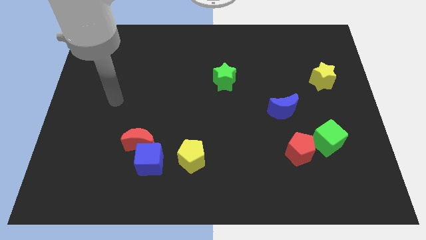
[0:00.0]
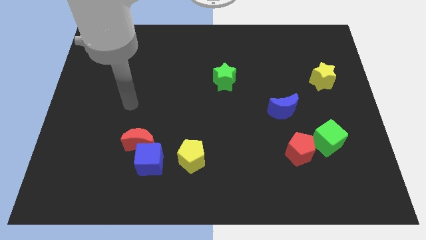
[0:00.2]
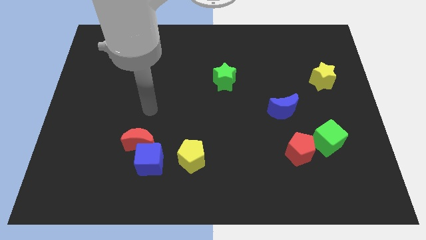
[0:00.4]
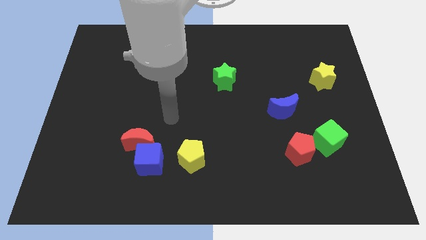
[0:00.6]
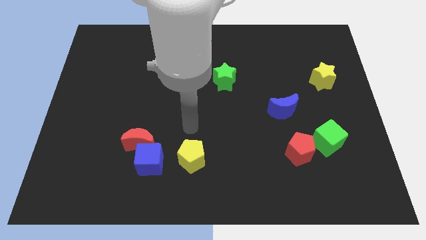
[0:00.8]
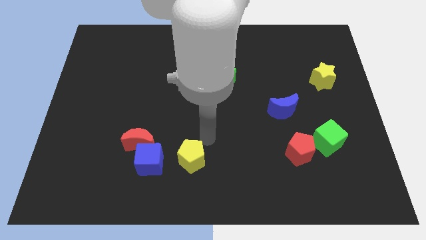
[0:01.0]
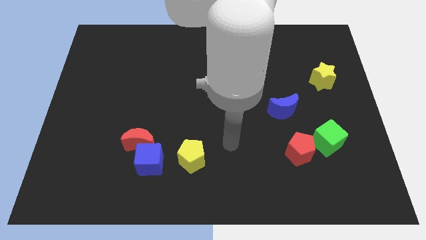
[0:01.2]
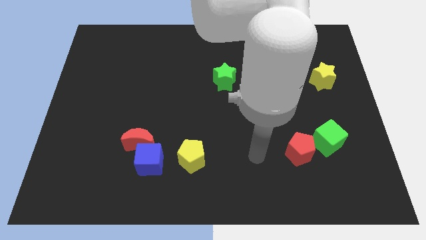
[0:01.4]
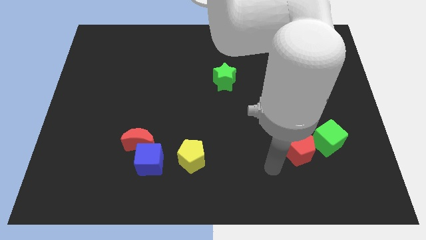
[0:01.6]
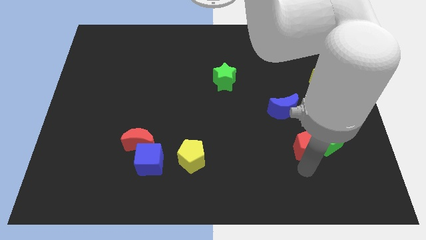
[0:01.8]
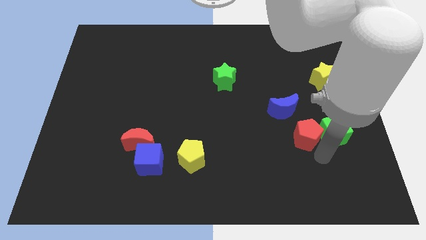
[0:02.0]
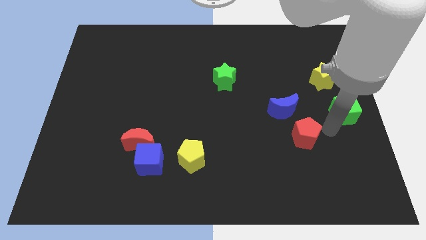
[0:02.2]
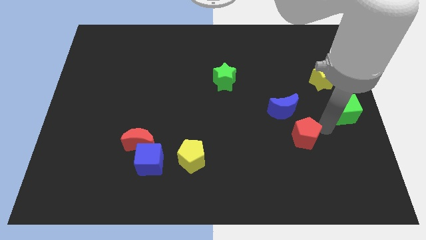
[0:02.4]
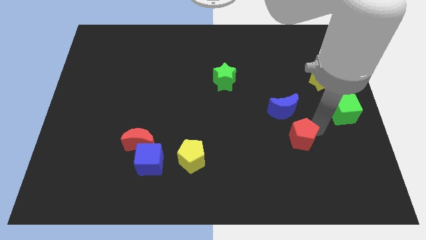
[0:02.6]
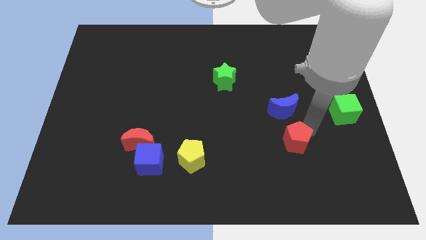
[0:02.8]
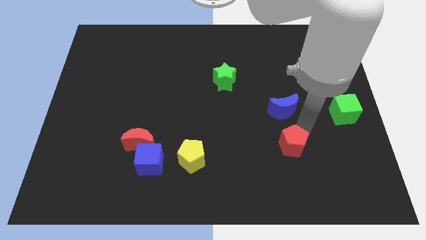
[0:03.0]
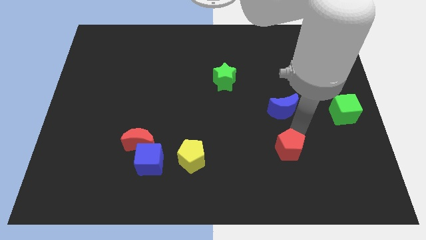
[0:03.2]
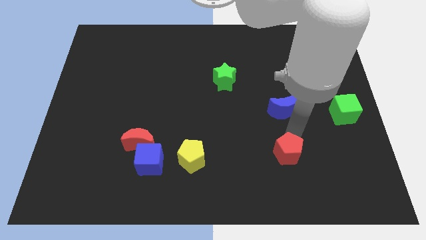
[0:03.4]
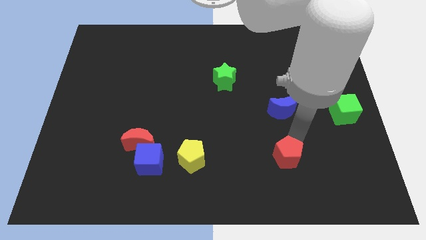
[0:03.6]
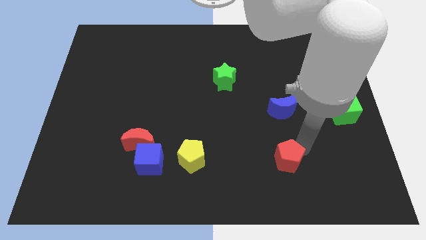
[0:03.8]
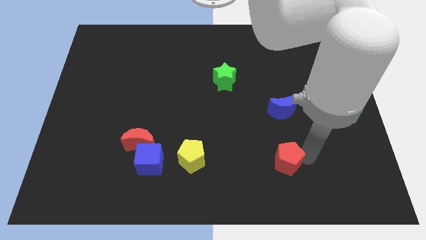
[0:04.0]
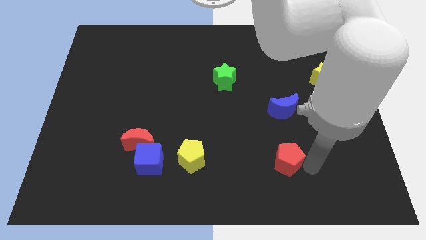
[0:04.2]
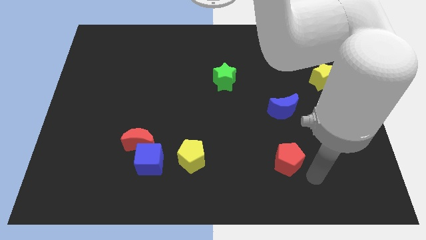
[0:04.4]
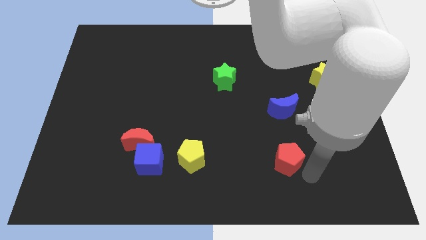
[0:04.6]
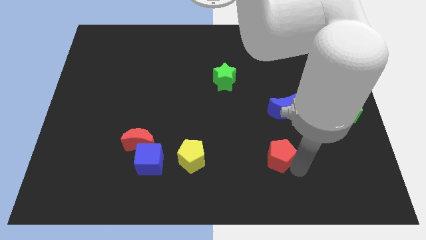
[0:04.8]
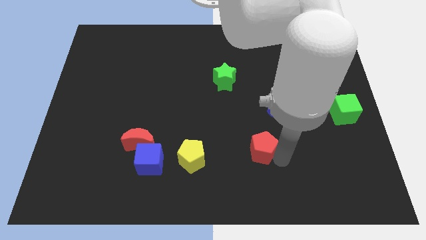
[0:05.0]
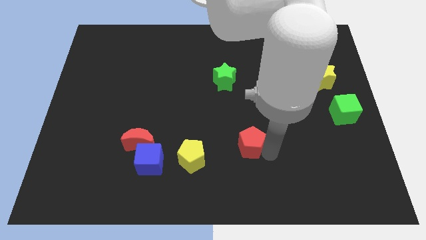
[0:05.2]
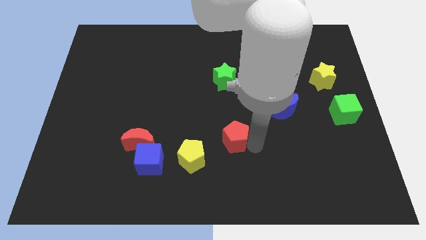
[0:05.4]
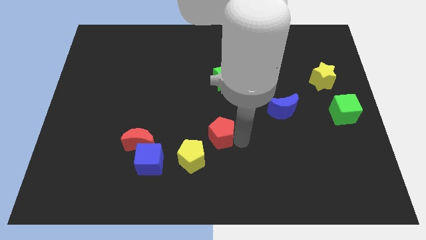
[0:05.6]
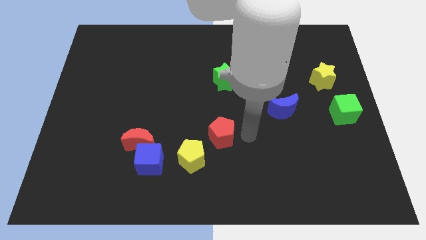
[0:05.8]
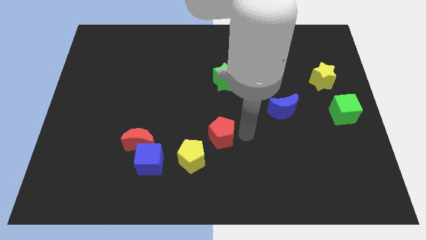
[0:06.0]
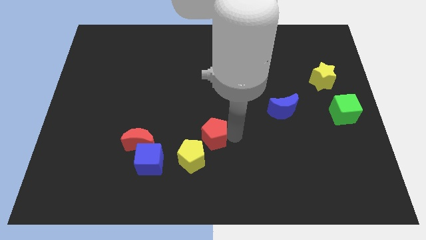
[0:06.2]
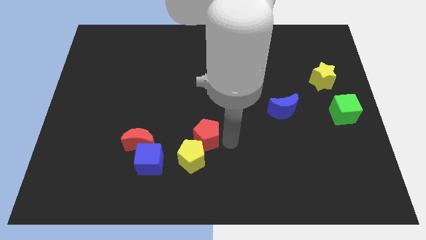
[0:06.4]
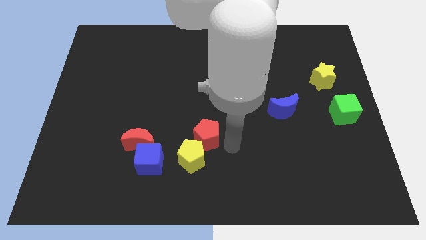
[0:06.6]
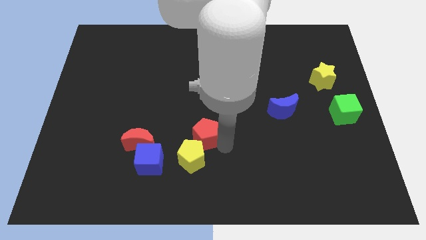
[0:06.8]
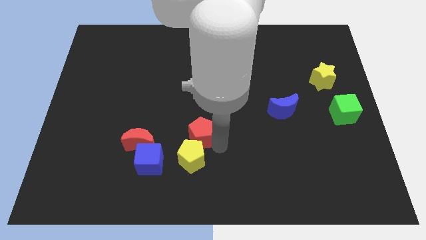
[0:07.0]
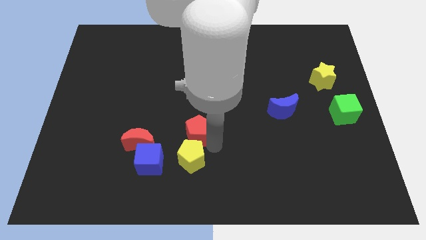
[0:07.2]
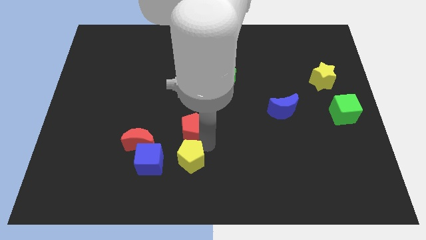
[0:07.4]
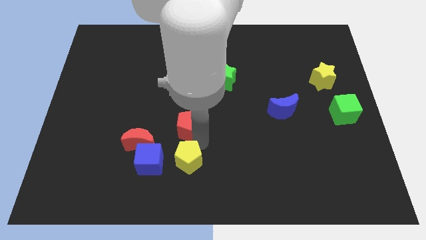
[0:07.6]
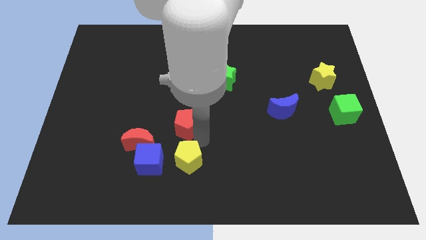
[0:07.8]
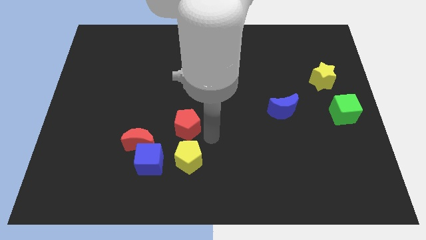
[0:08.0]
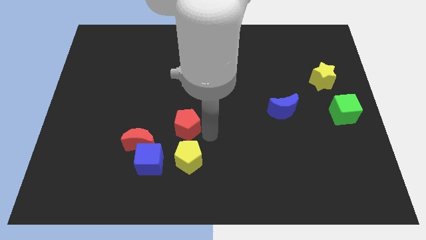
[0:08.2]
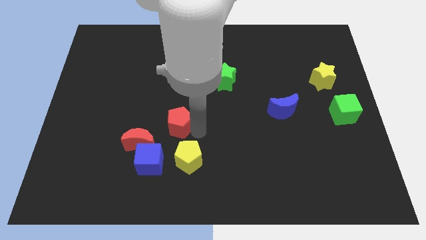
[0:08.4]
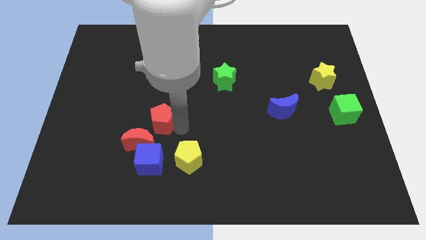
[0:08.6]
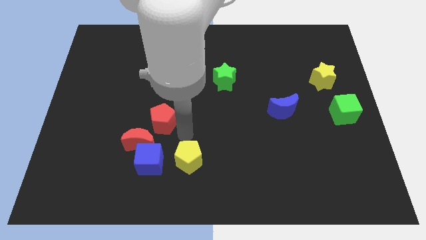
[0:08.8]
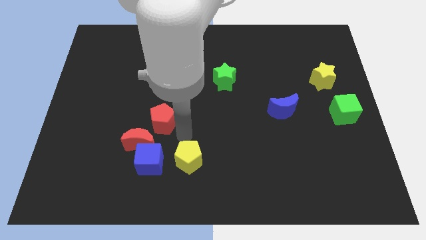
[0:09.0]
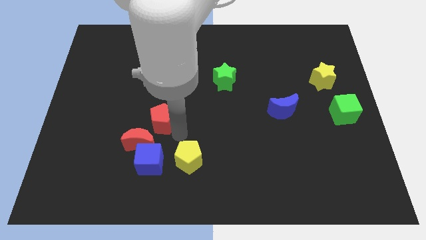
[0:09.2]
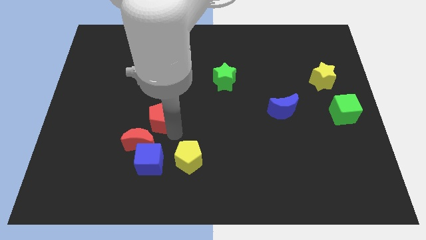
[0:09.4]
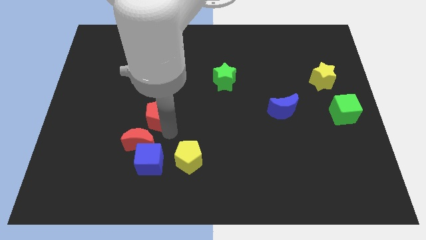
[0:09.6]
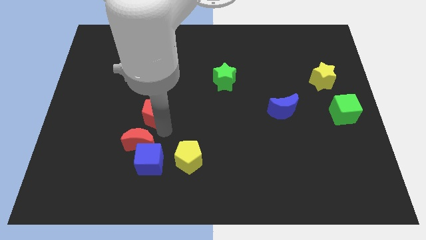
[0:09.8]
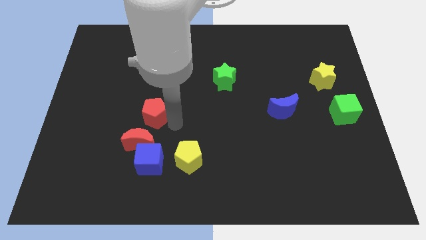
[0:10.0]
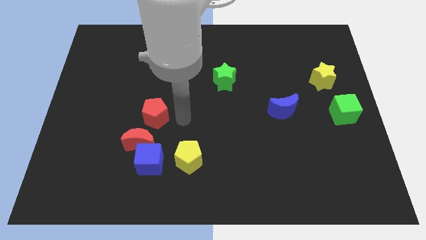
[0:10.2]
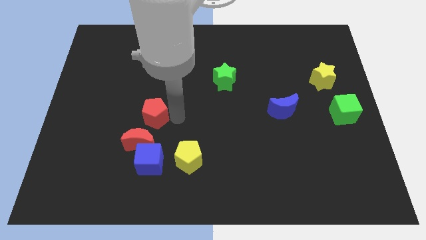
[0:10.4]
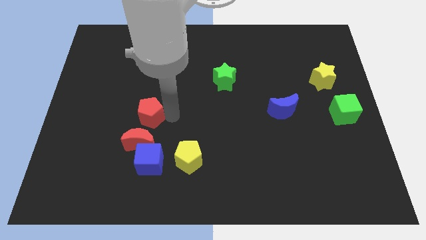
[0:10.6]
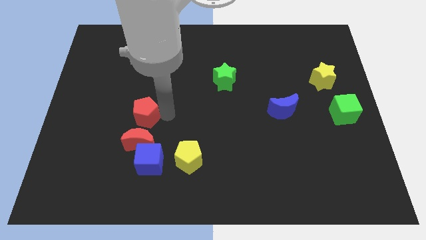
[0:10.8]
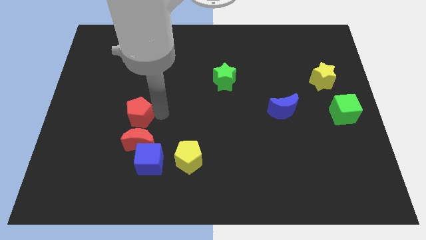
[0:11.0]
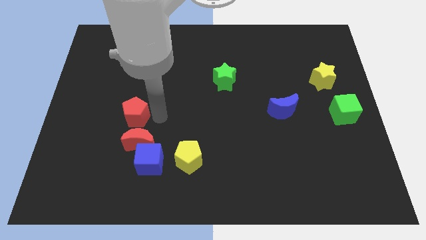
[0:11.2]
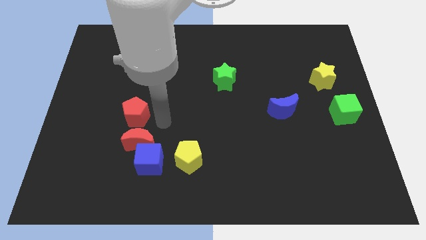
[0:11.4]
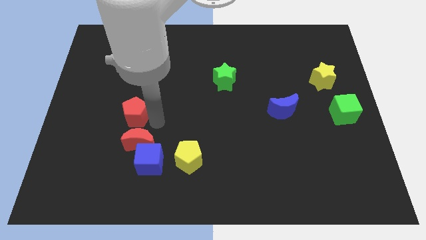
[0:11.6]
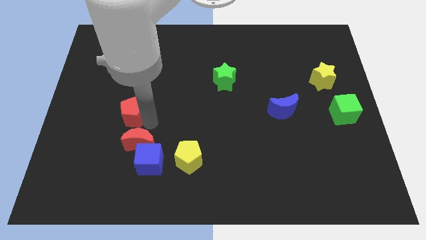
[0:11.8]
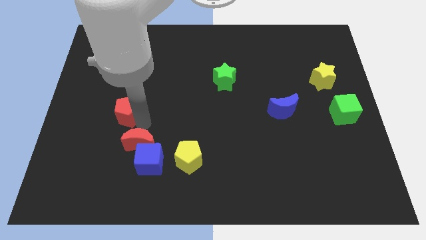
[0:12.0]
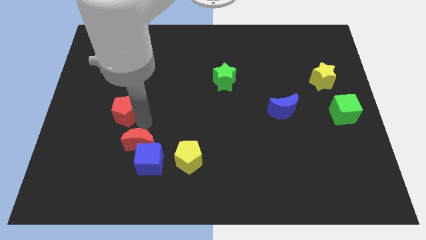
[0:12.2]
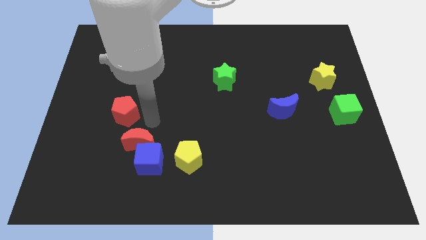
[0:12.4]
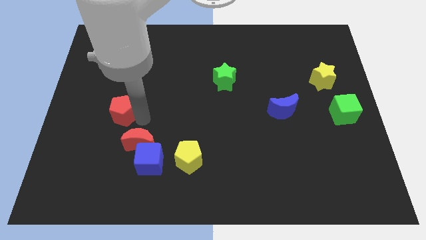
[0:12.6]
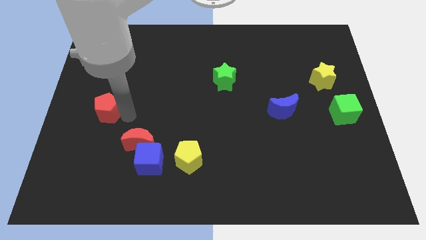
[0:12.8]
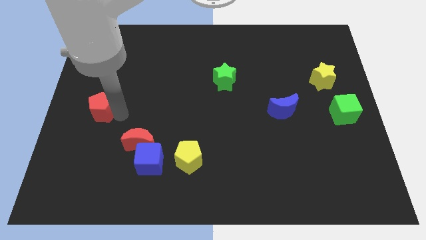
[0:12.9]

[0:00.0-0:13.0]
put the red pentagon to the left side of the board

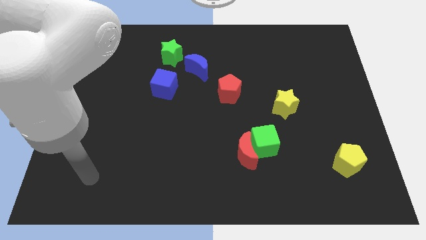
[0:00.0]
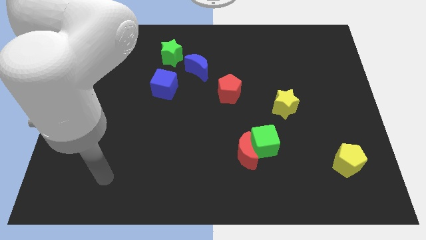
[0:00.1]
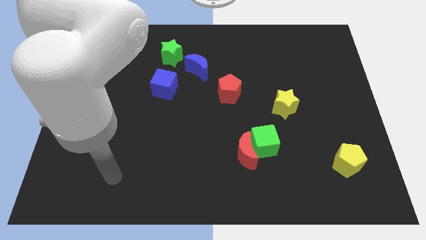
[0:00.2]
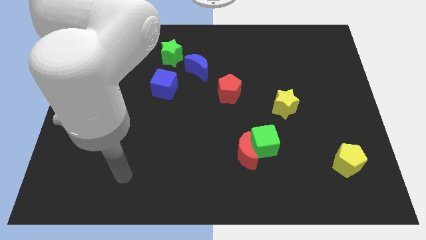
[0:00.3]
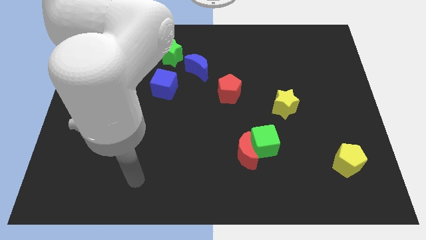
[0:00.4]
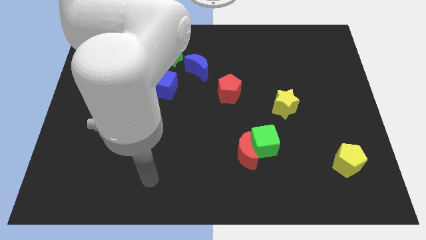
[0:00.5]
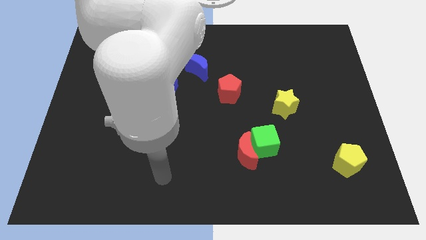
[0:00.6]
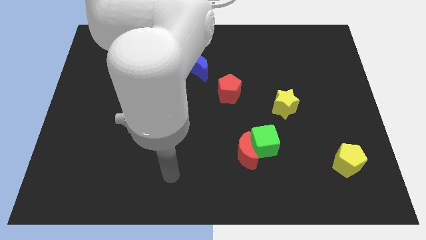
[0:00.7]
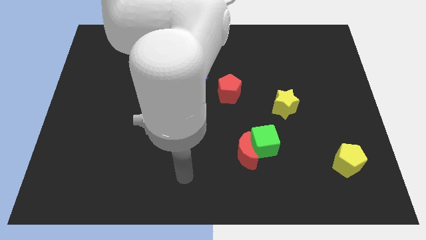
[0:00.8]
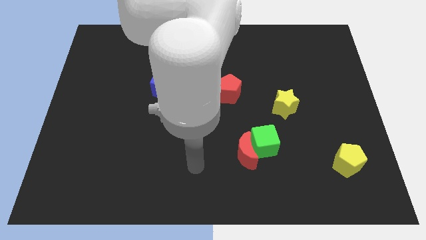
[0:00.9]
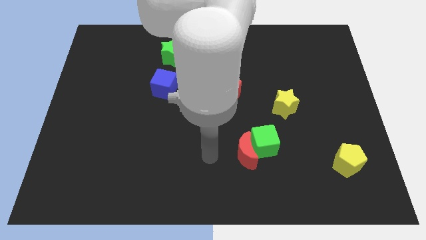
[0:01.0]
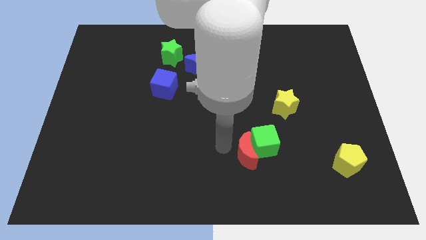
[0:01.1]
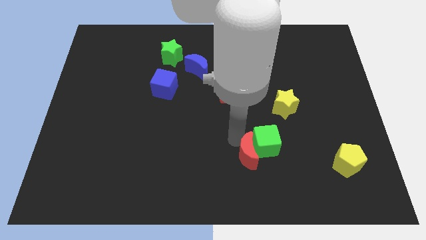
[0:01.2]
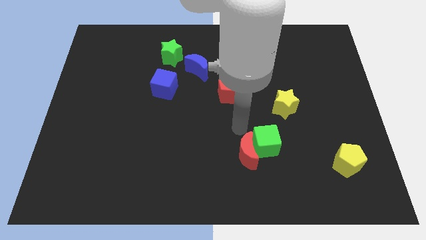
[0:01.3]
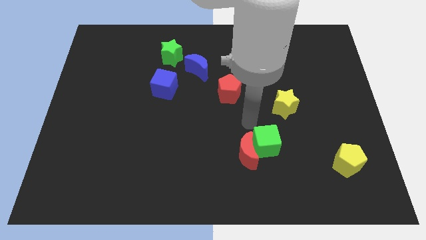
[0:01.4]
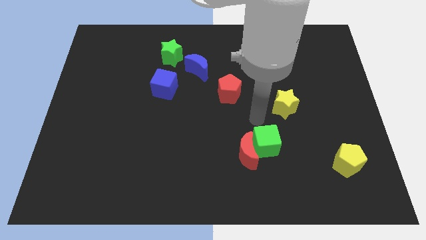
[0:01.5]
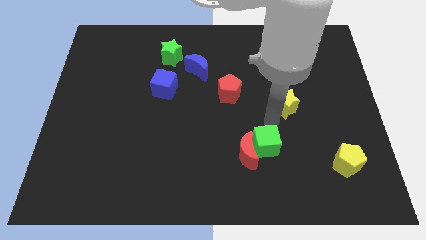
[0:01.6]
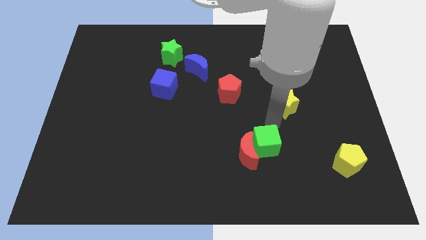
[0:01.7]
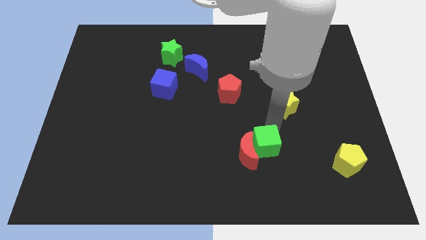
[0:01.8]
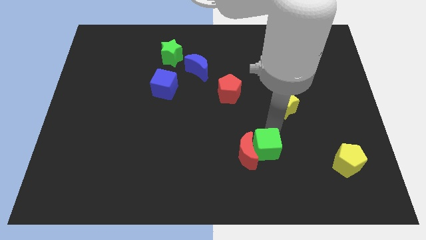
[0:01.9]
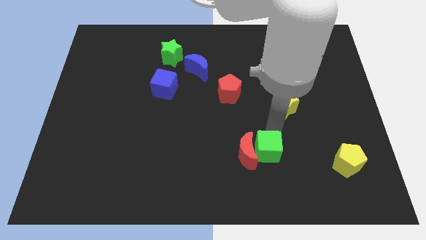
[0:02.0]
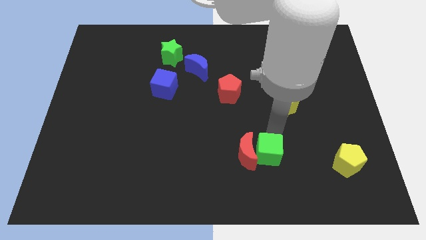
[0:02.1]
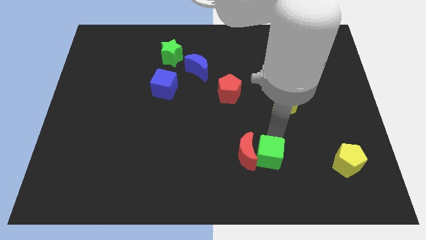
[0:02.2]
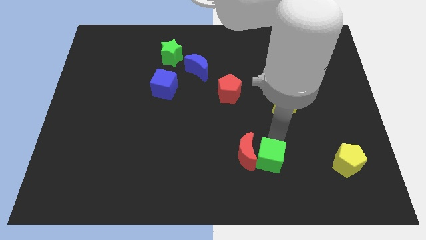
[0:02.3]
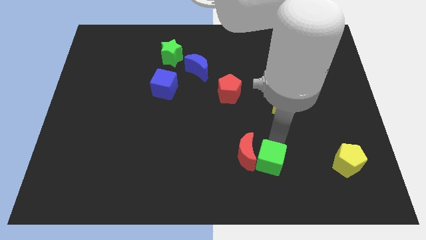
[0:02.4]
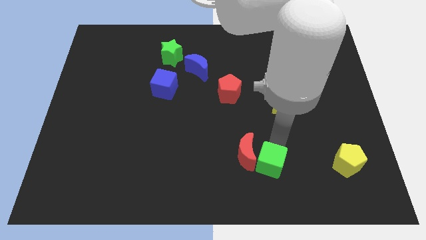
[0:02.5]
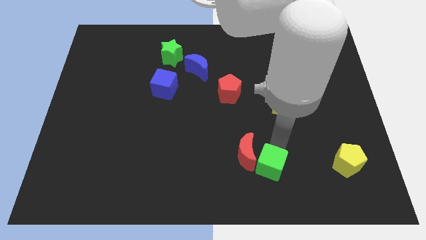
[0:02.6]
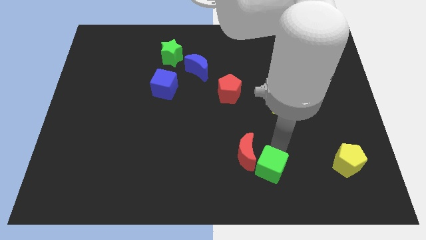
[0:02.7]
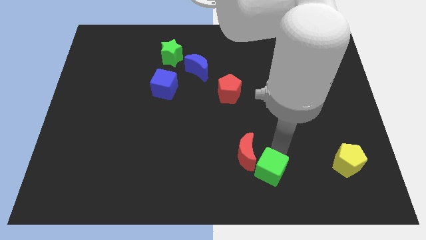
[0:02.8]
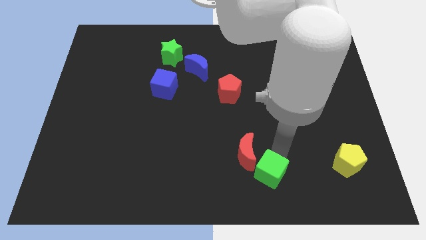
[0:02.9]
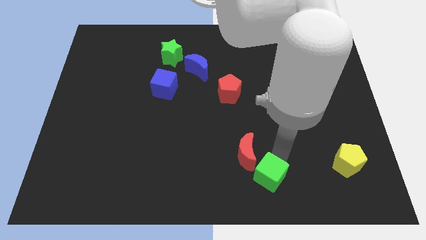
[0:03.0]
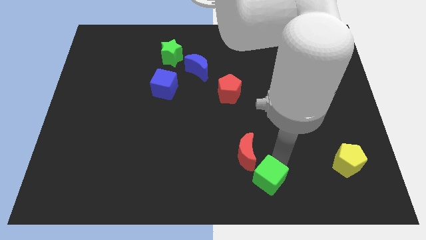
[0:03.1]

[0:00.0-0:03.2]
slide the green cube to the bottom side
